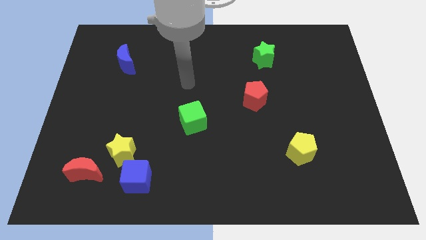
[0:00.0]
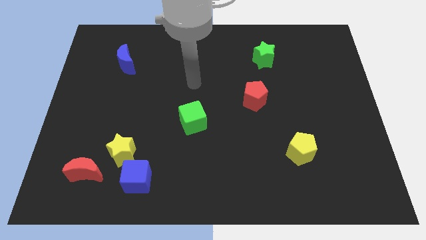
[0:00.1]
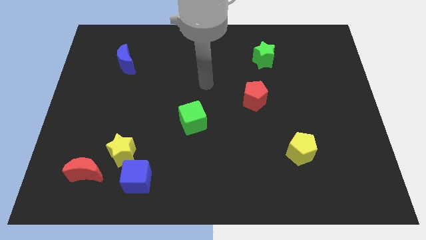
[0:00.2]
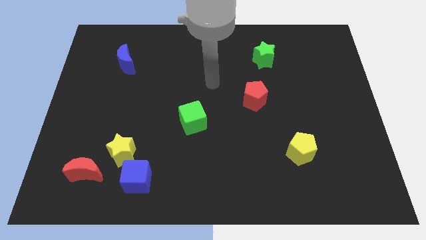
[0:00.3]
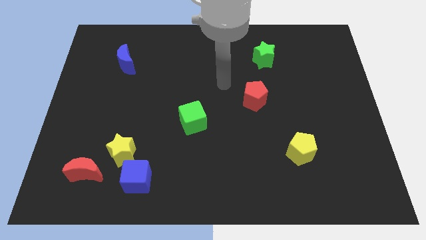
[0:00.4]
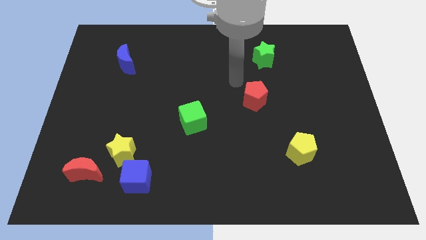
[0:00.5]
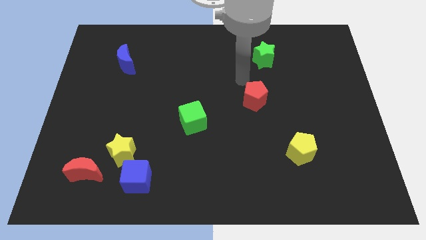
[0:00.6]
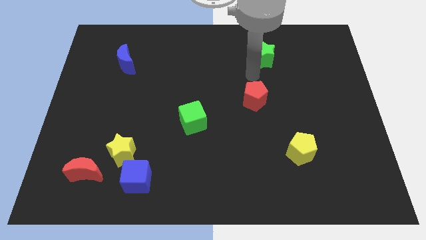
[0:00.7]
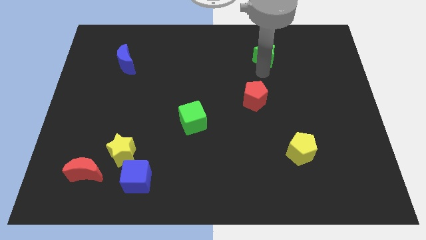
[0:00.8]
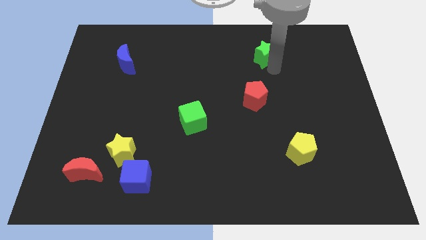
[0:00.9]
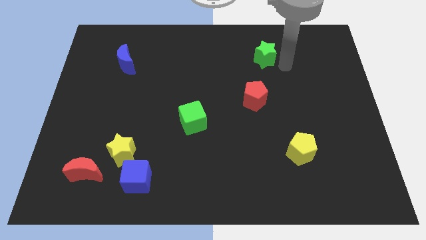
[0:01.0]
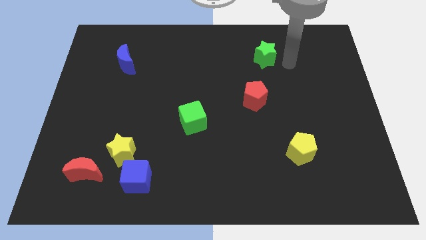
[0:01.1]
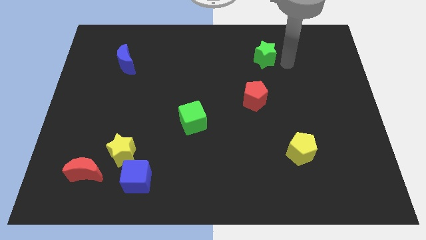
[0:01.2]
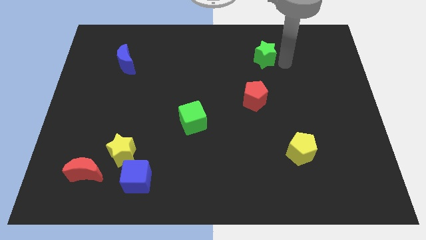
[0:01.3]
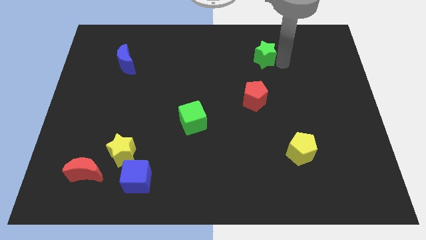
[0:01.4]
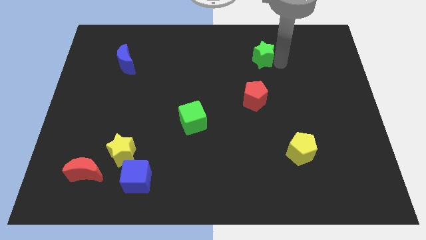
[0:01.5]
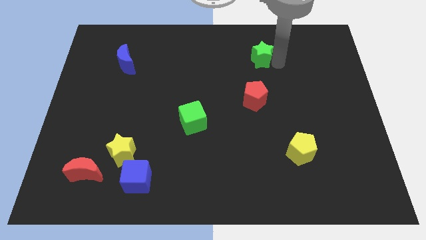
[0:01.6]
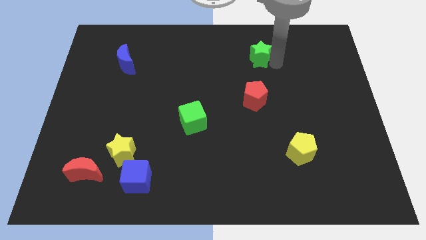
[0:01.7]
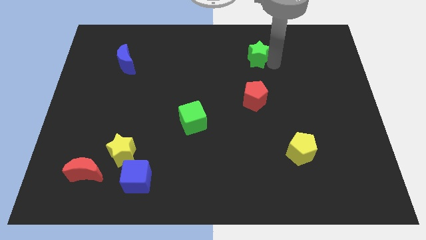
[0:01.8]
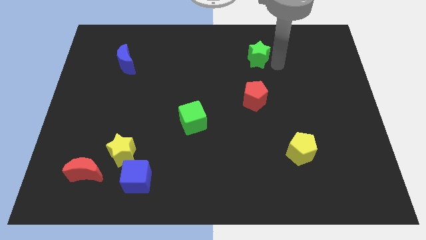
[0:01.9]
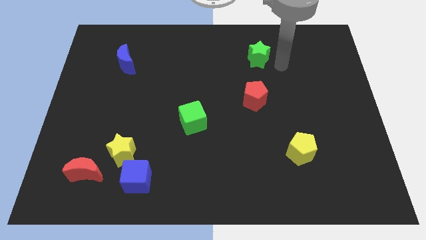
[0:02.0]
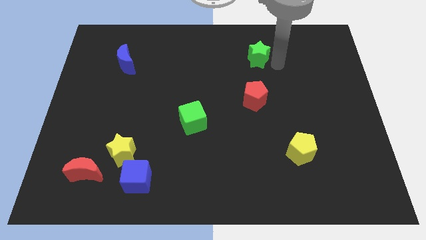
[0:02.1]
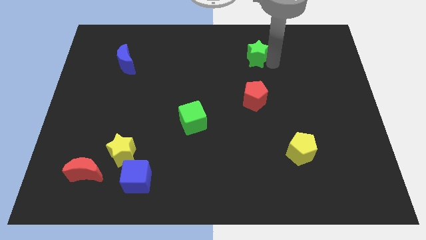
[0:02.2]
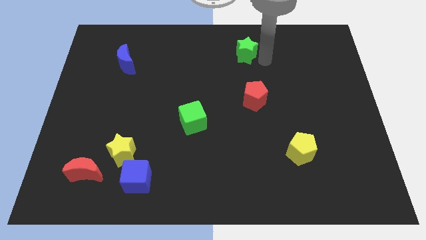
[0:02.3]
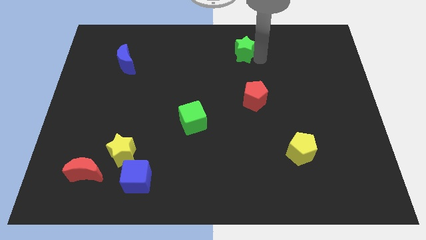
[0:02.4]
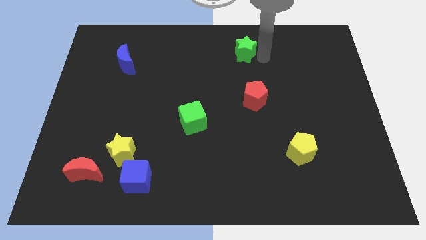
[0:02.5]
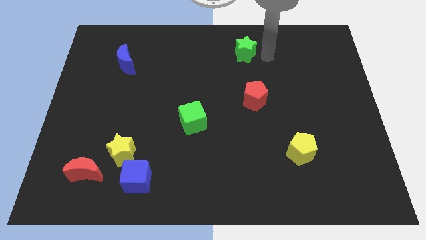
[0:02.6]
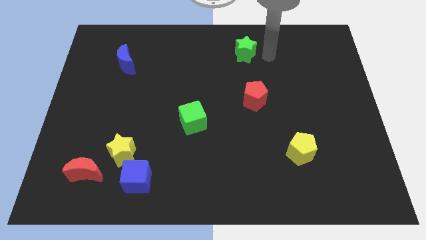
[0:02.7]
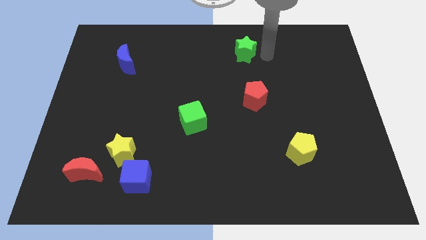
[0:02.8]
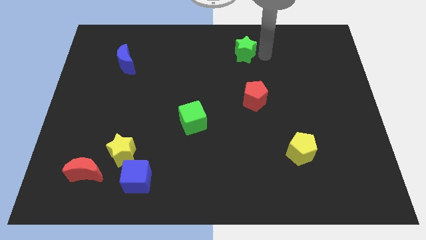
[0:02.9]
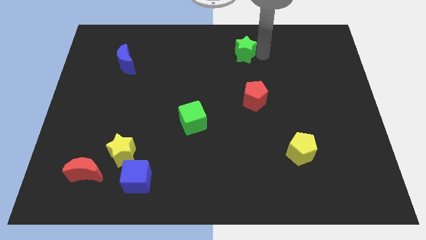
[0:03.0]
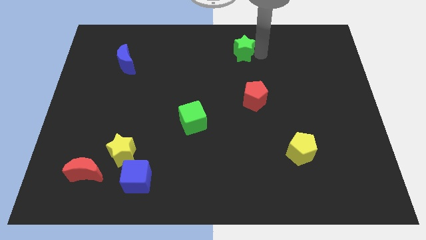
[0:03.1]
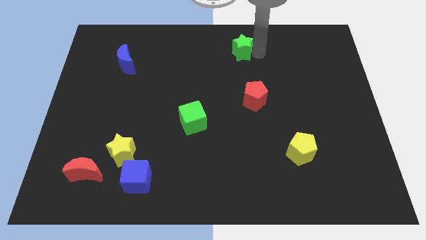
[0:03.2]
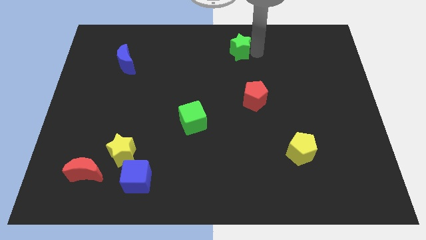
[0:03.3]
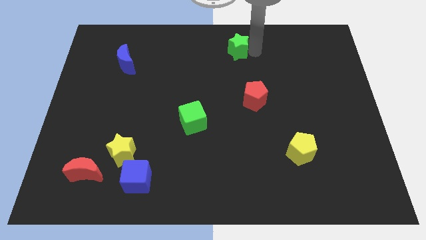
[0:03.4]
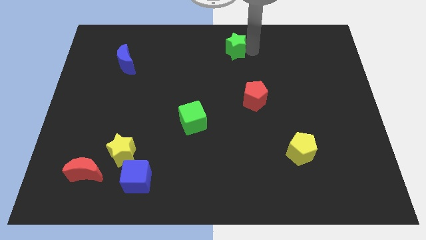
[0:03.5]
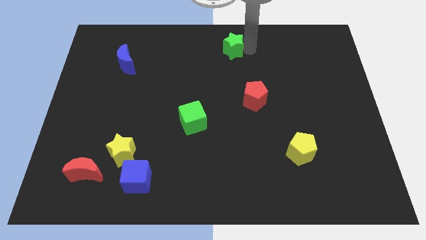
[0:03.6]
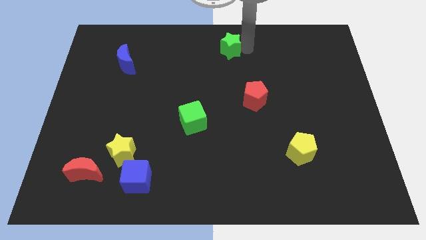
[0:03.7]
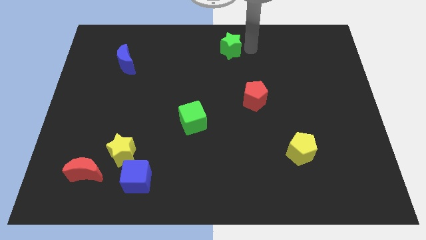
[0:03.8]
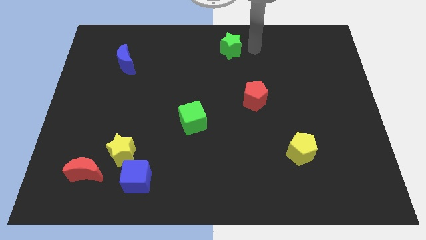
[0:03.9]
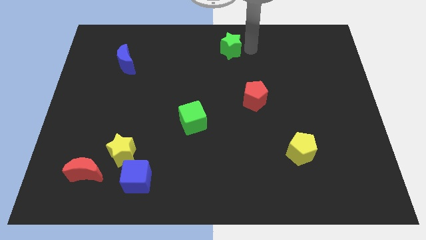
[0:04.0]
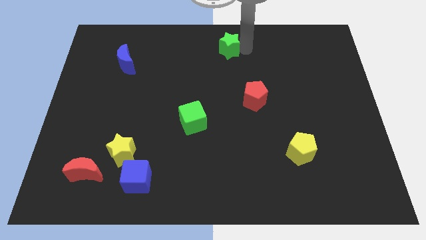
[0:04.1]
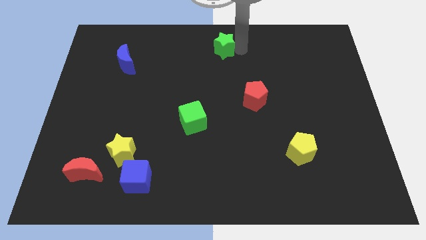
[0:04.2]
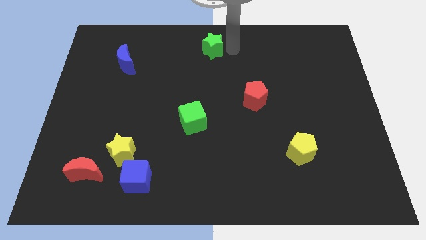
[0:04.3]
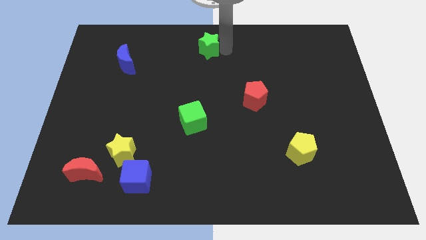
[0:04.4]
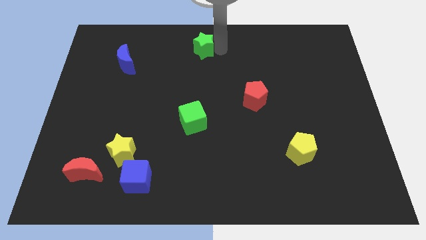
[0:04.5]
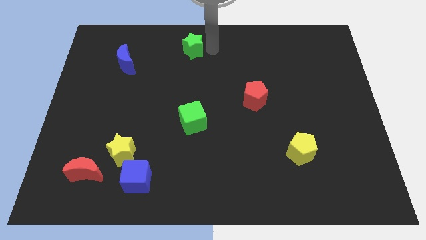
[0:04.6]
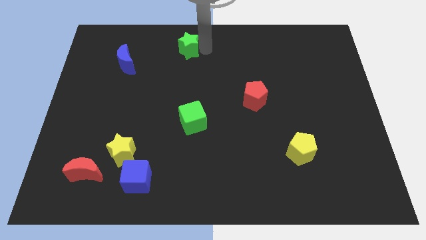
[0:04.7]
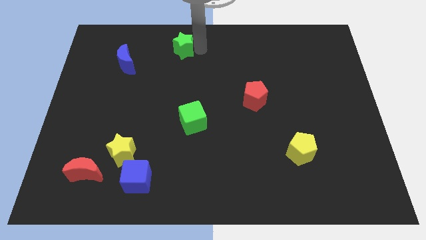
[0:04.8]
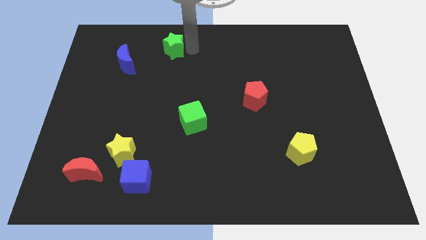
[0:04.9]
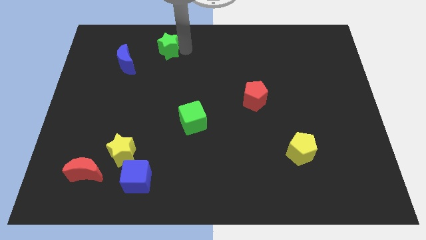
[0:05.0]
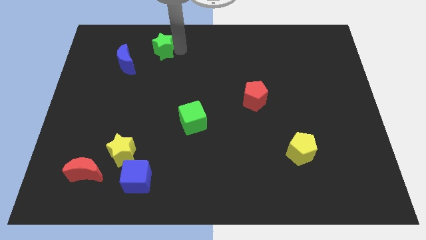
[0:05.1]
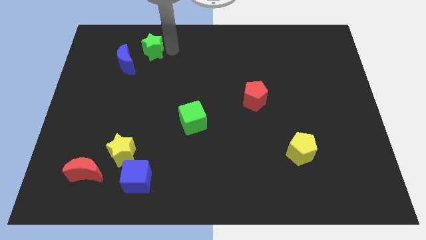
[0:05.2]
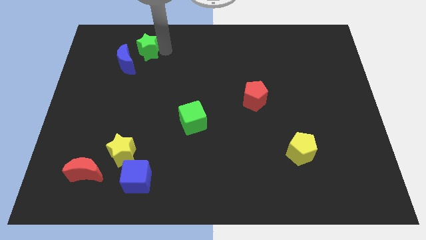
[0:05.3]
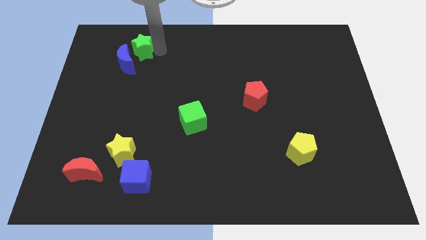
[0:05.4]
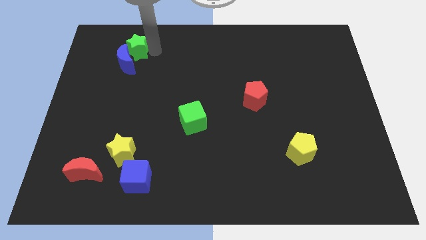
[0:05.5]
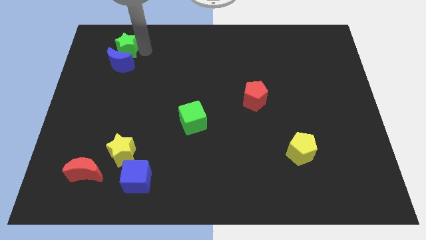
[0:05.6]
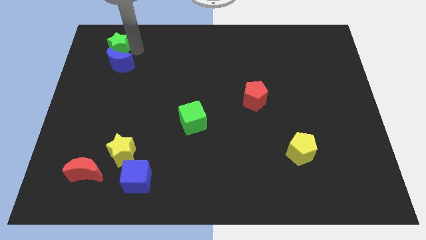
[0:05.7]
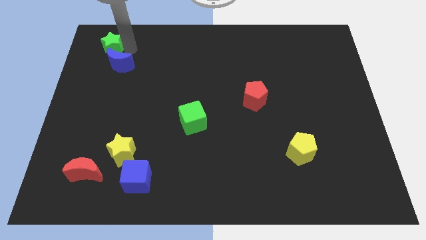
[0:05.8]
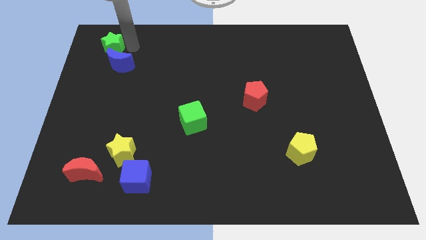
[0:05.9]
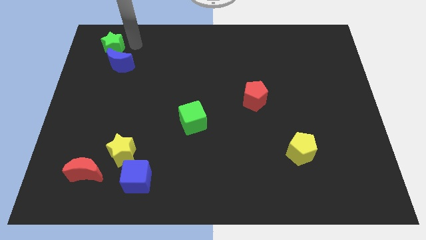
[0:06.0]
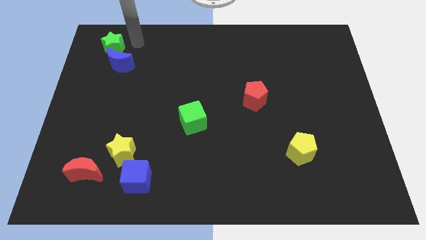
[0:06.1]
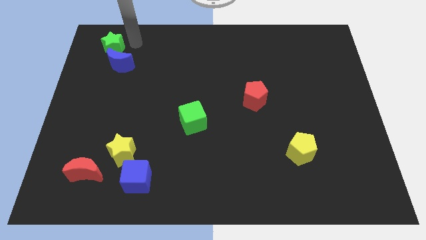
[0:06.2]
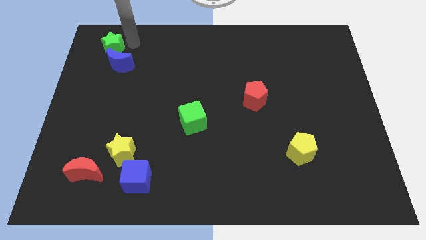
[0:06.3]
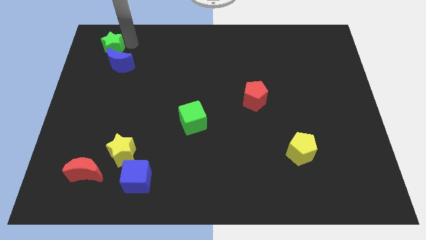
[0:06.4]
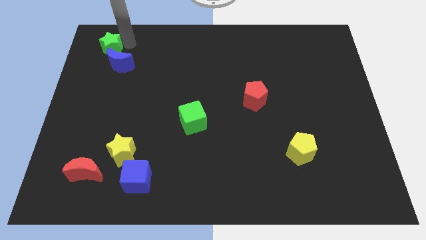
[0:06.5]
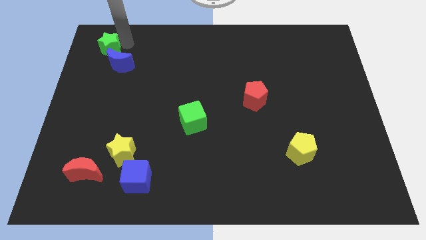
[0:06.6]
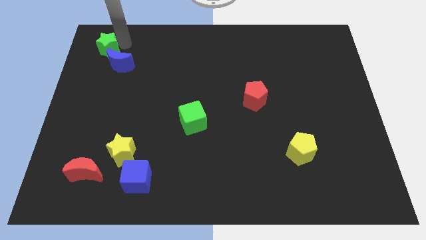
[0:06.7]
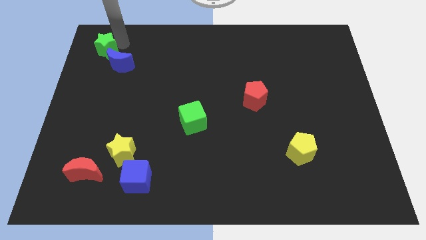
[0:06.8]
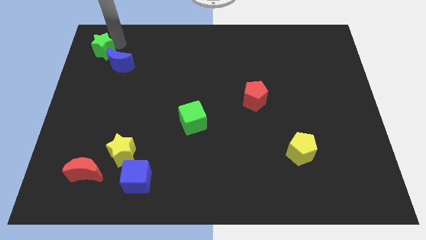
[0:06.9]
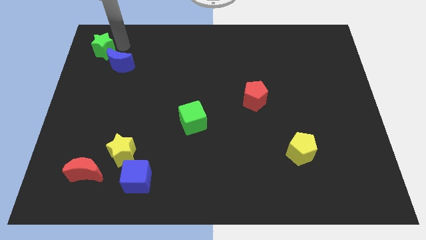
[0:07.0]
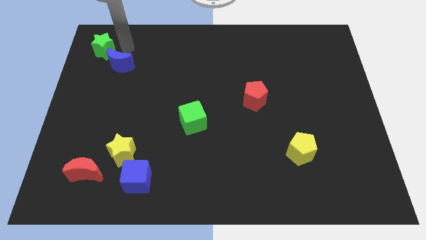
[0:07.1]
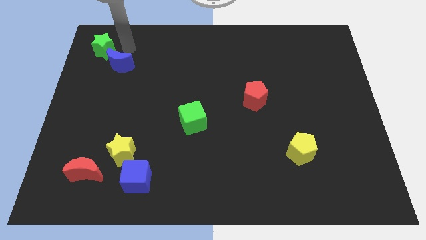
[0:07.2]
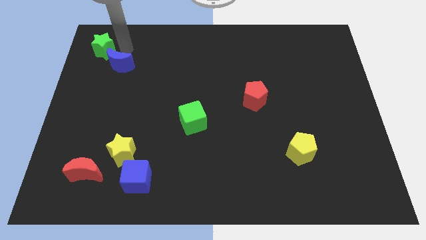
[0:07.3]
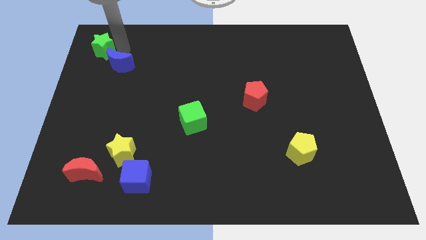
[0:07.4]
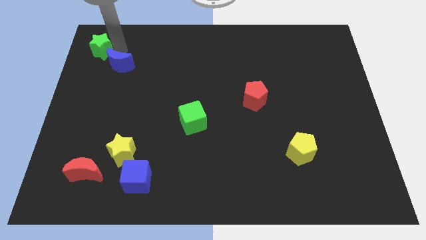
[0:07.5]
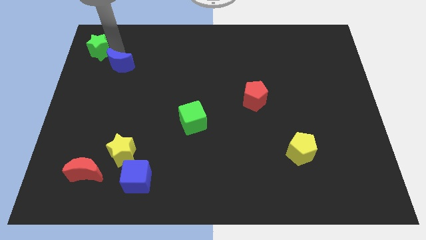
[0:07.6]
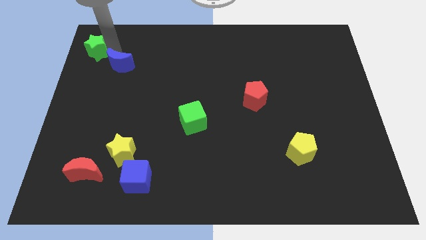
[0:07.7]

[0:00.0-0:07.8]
slide the green star to the upper left corner
